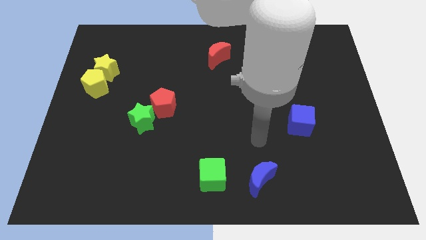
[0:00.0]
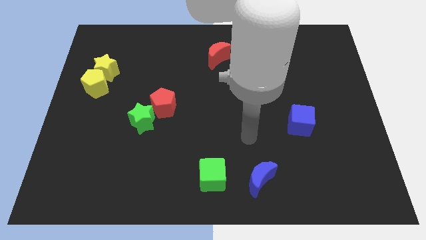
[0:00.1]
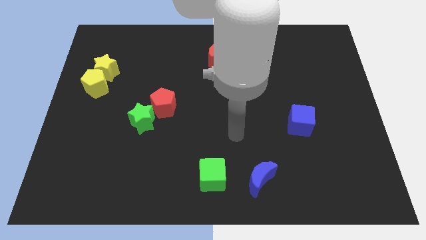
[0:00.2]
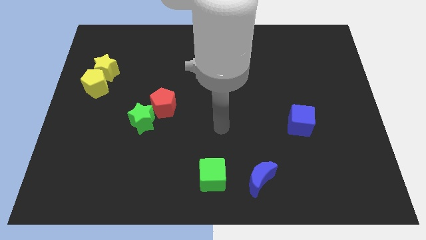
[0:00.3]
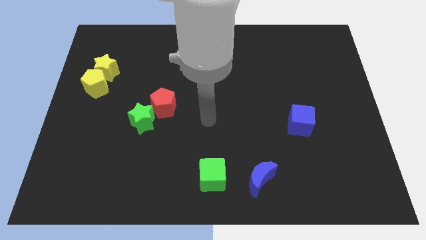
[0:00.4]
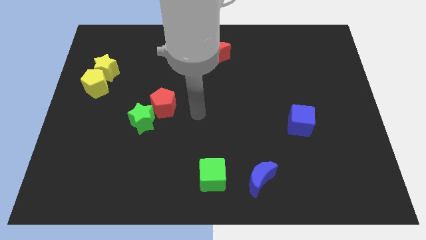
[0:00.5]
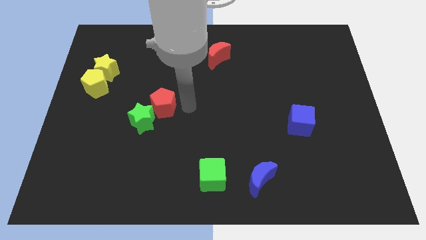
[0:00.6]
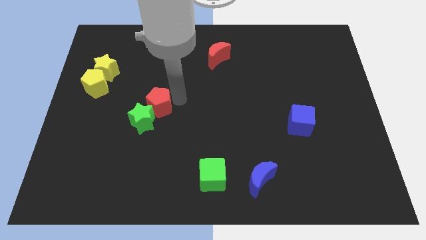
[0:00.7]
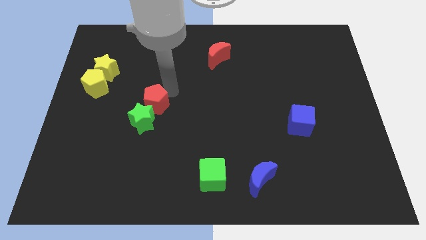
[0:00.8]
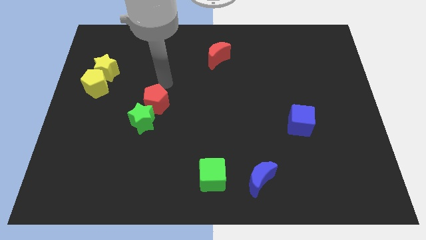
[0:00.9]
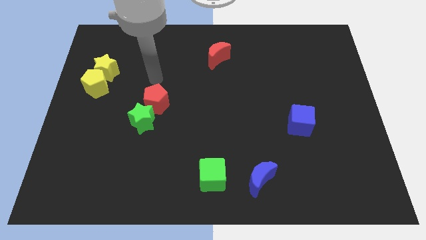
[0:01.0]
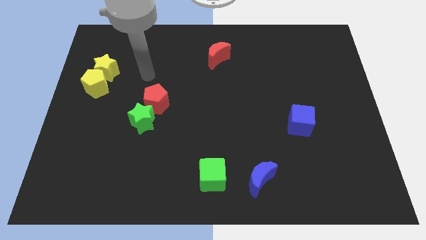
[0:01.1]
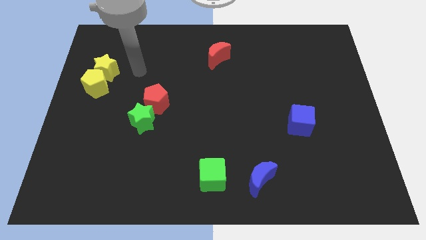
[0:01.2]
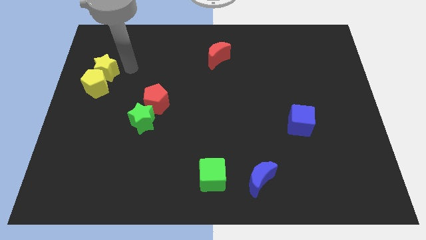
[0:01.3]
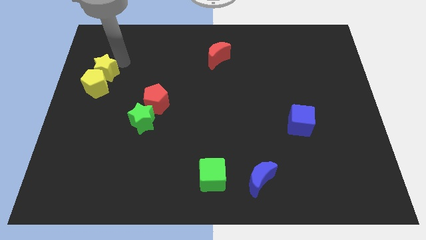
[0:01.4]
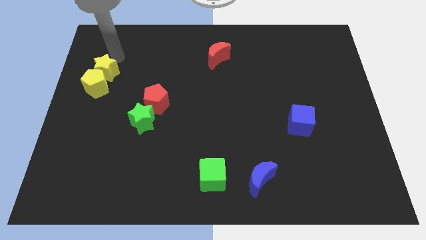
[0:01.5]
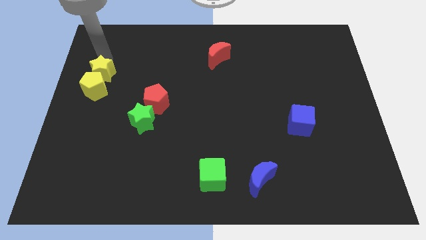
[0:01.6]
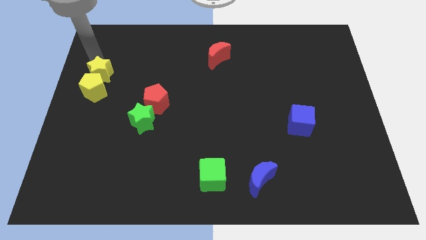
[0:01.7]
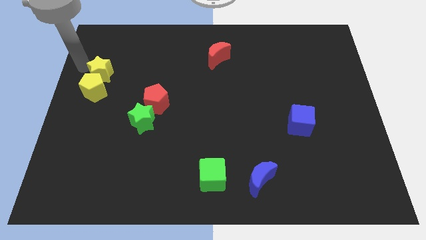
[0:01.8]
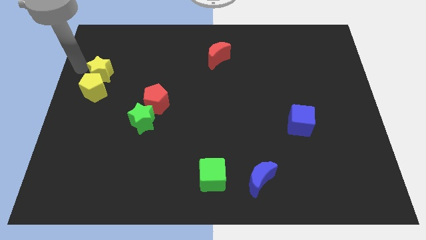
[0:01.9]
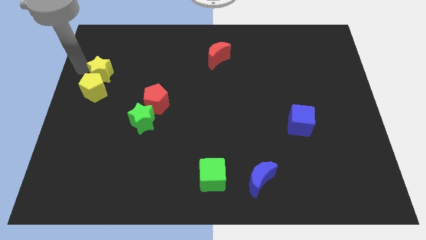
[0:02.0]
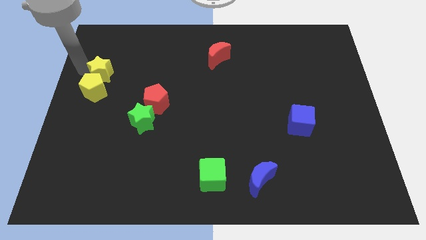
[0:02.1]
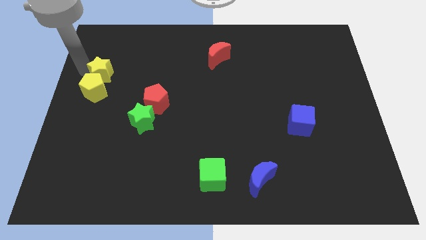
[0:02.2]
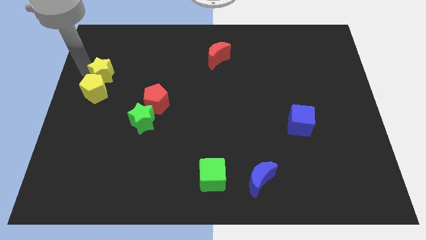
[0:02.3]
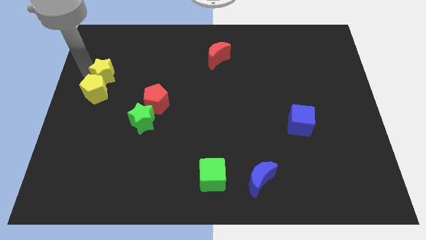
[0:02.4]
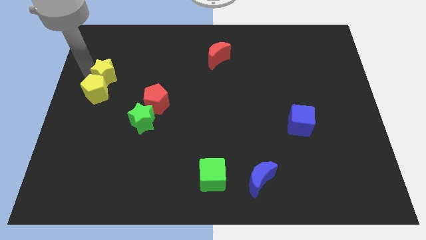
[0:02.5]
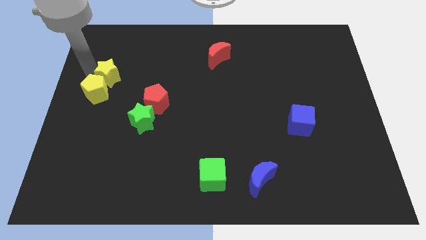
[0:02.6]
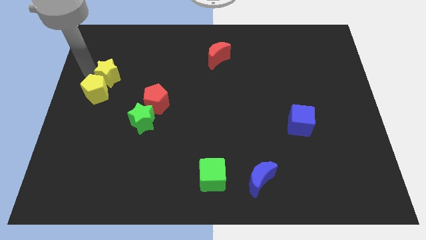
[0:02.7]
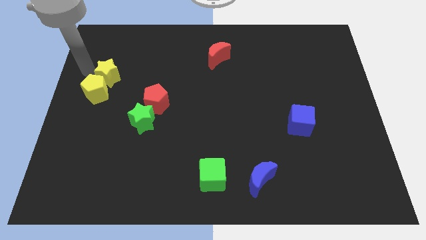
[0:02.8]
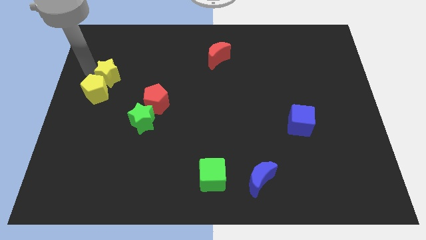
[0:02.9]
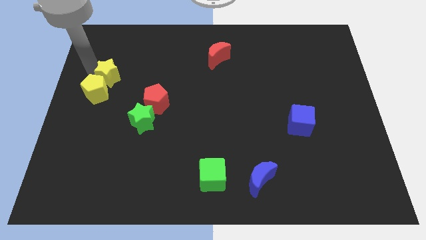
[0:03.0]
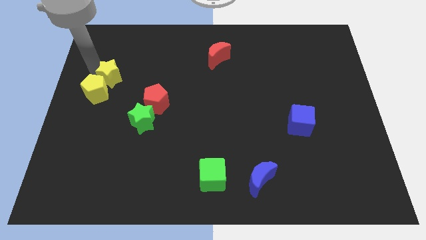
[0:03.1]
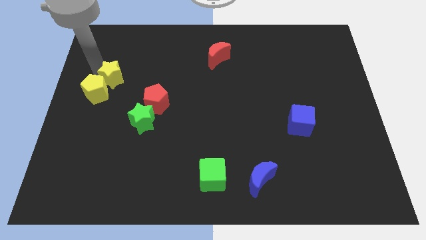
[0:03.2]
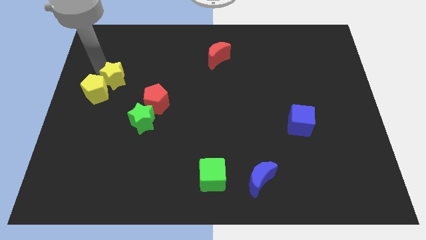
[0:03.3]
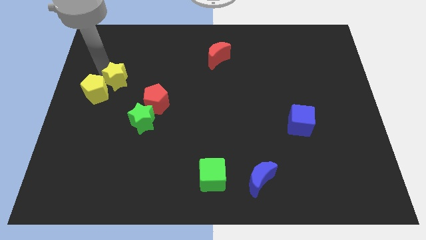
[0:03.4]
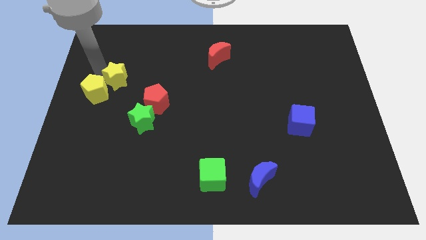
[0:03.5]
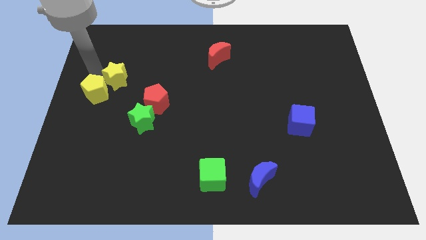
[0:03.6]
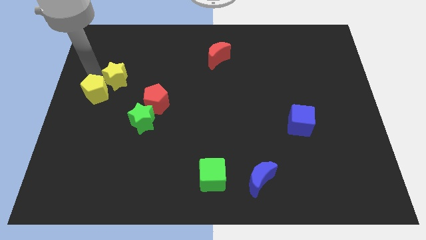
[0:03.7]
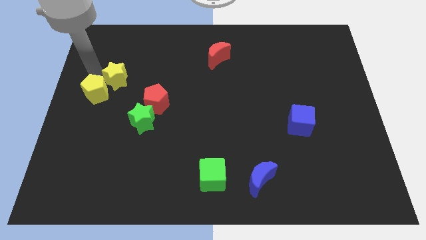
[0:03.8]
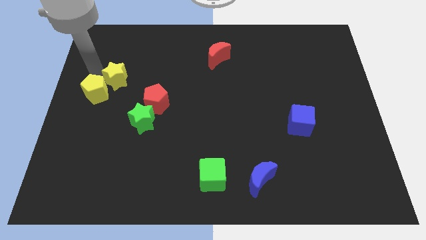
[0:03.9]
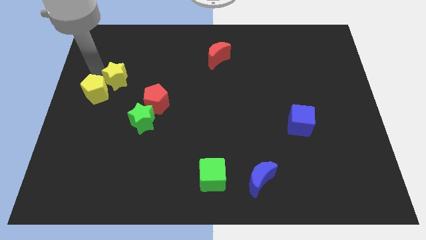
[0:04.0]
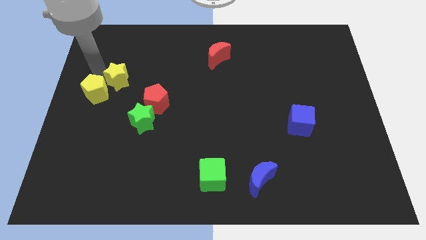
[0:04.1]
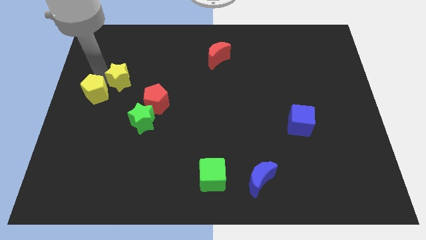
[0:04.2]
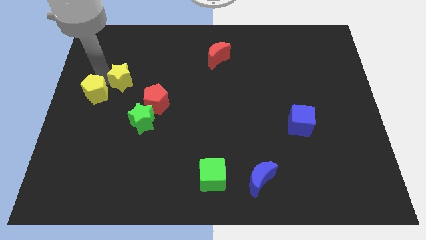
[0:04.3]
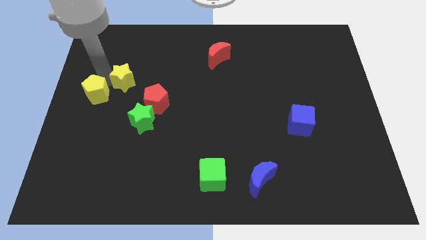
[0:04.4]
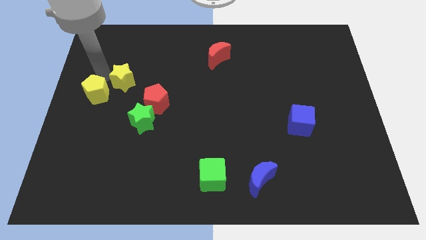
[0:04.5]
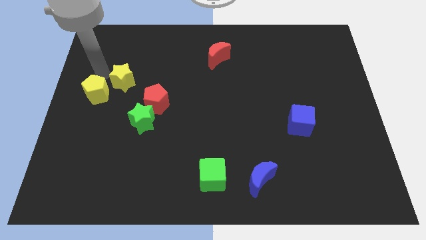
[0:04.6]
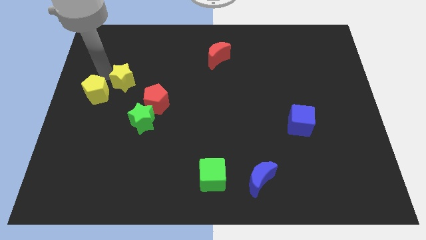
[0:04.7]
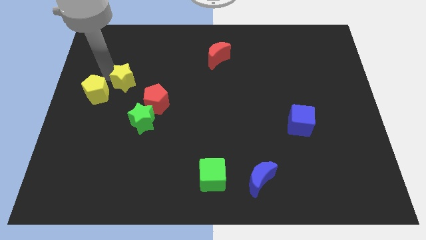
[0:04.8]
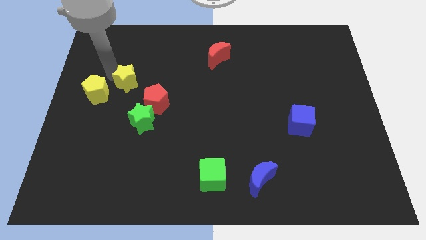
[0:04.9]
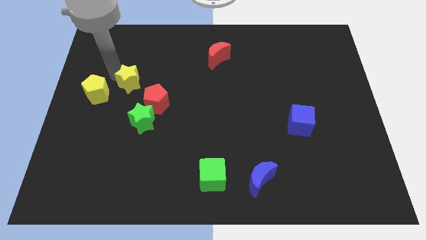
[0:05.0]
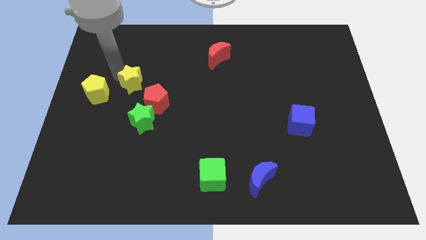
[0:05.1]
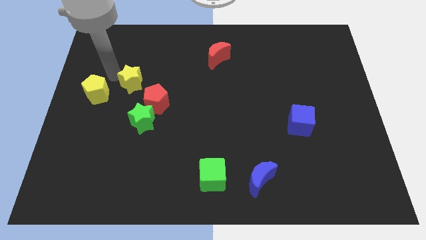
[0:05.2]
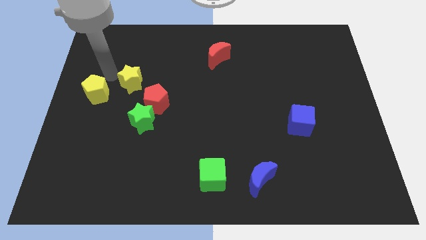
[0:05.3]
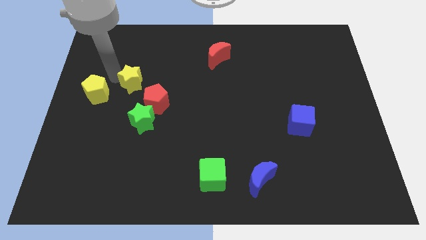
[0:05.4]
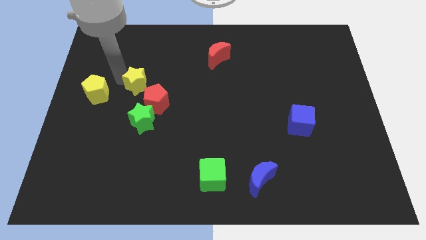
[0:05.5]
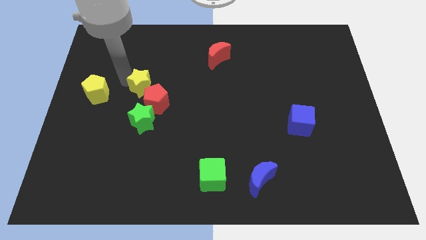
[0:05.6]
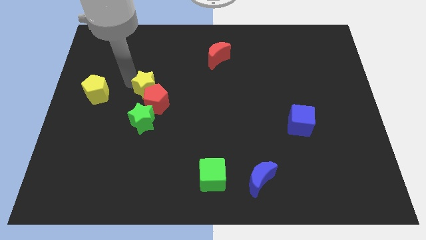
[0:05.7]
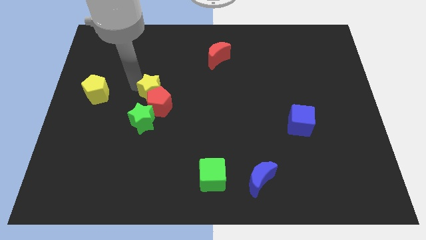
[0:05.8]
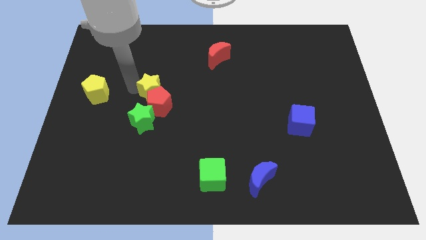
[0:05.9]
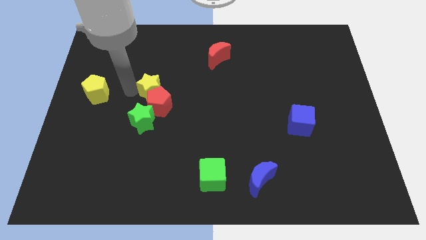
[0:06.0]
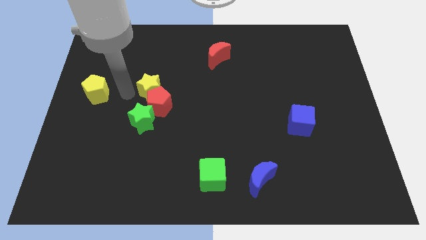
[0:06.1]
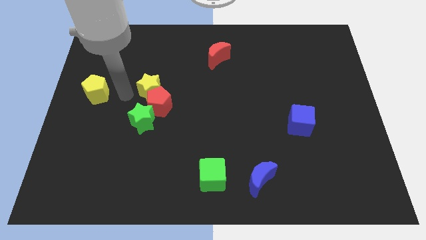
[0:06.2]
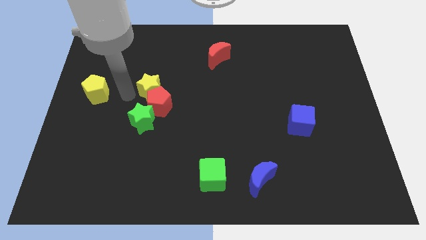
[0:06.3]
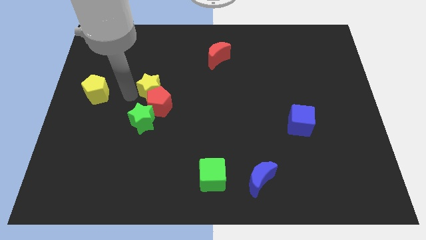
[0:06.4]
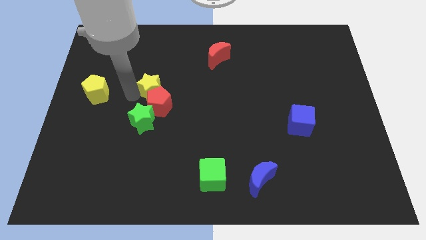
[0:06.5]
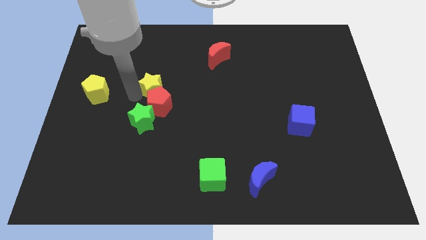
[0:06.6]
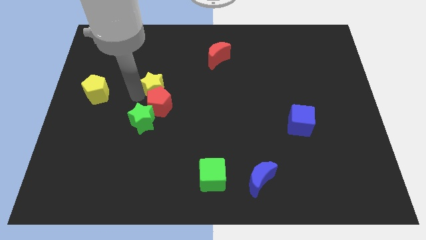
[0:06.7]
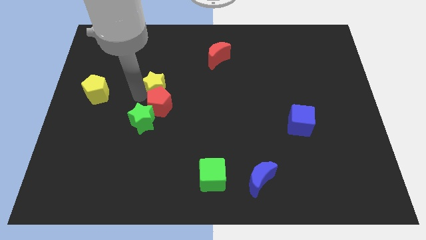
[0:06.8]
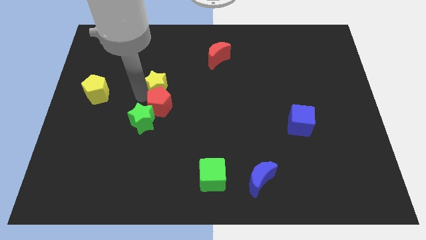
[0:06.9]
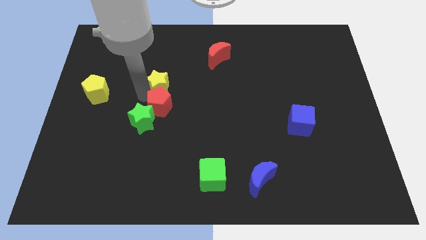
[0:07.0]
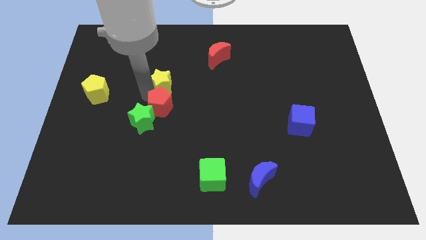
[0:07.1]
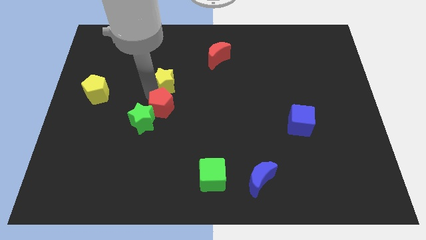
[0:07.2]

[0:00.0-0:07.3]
put the yellow star to the middle of the board
